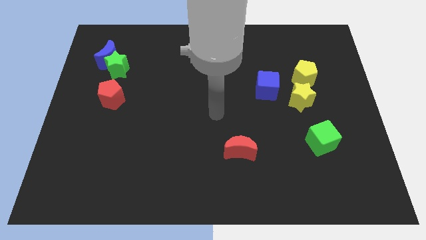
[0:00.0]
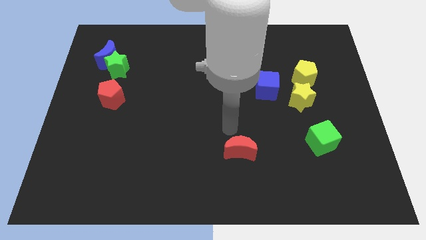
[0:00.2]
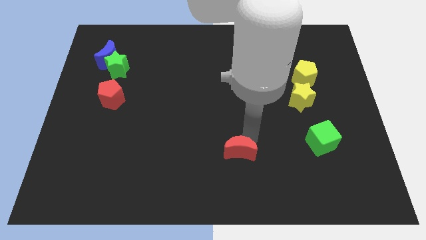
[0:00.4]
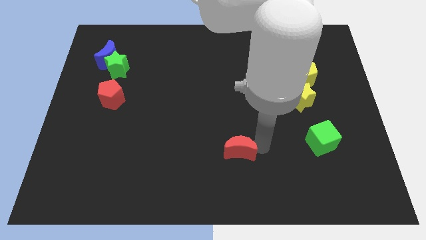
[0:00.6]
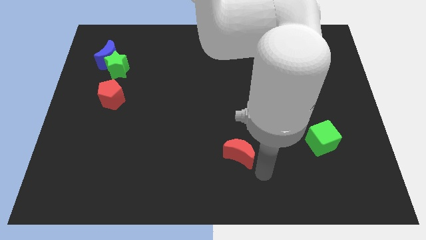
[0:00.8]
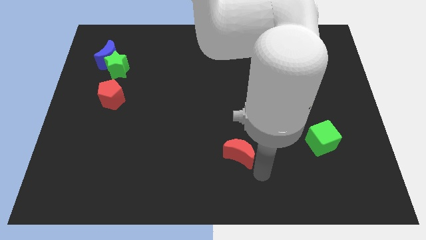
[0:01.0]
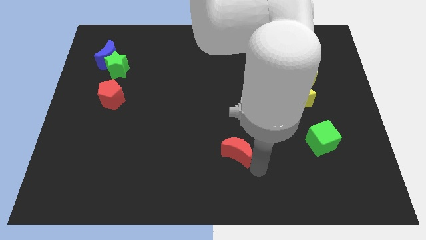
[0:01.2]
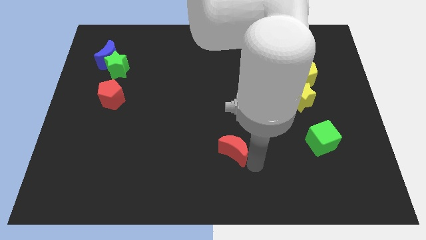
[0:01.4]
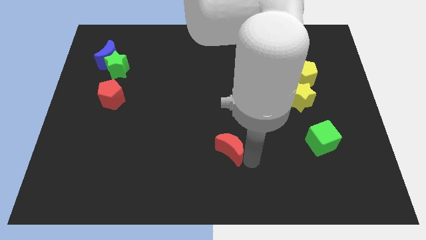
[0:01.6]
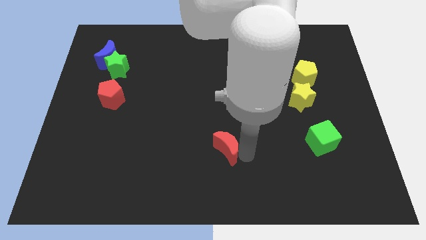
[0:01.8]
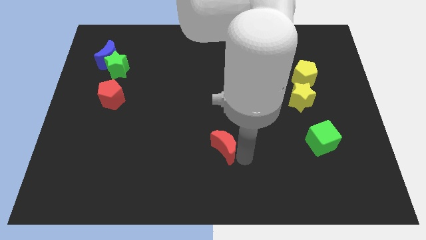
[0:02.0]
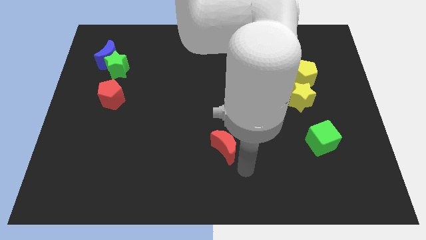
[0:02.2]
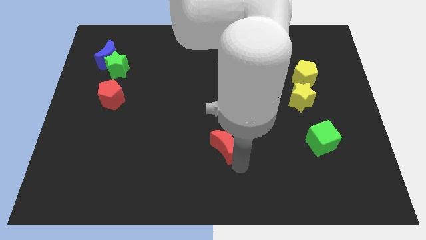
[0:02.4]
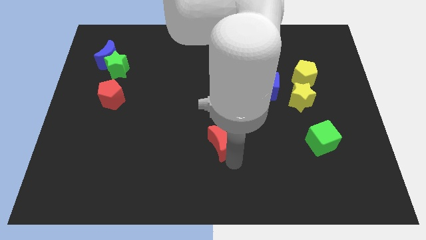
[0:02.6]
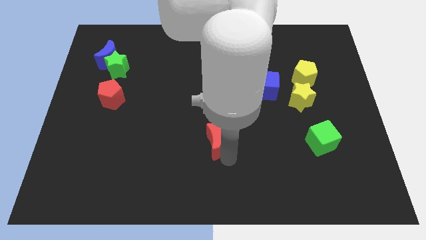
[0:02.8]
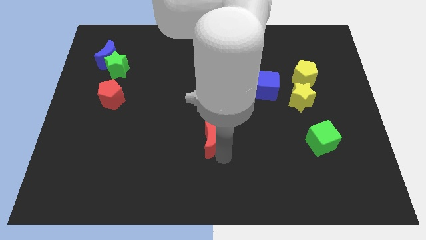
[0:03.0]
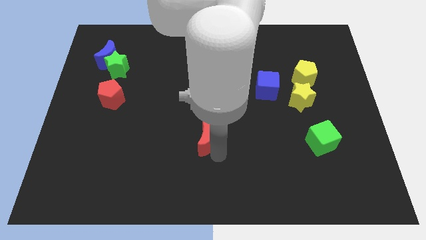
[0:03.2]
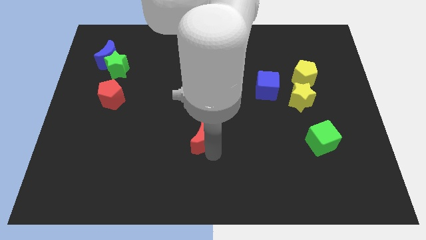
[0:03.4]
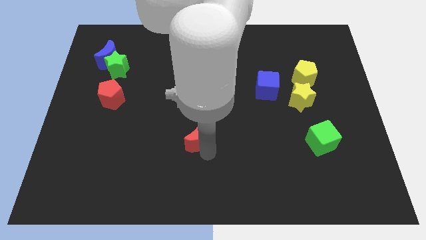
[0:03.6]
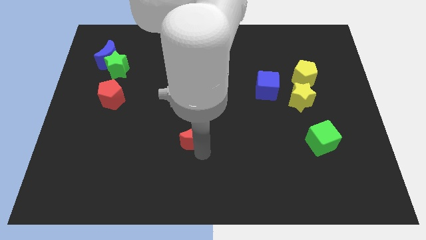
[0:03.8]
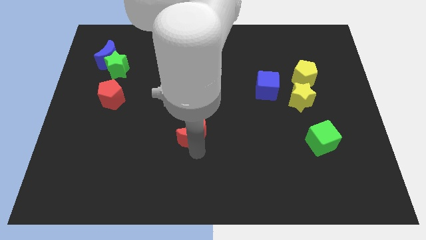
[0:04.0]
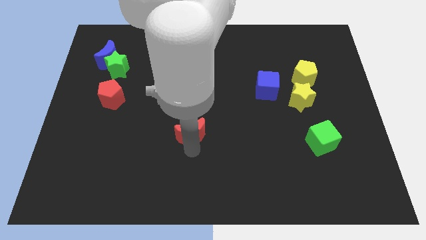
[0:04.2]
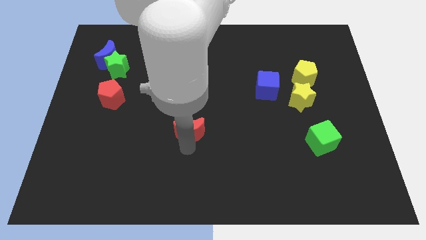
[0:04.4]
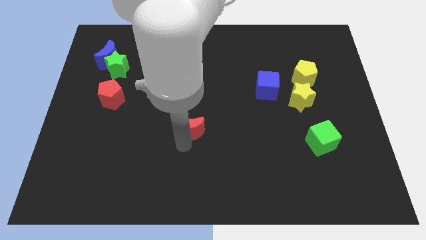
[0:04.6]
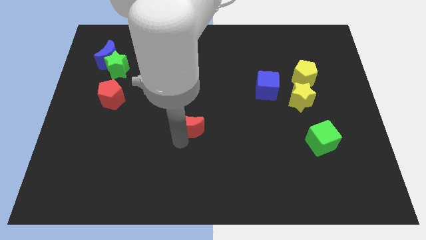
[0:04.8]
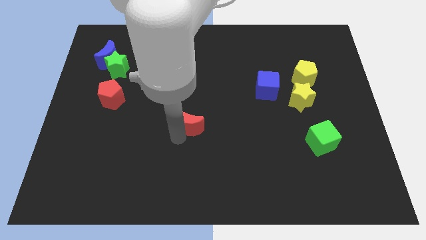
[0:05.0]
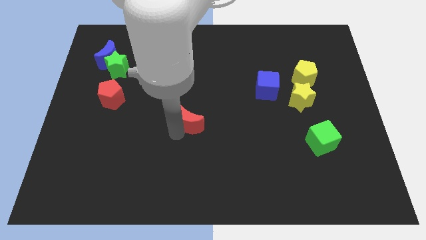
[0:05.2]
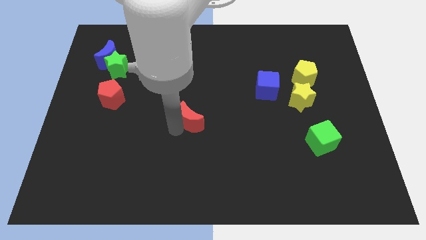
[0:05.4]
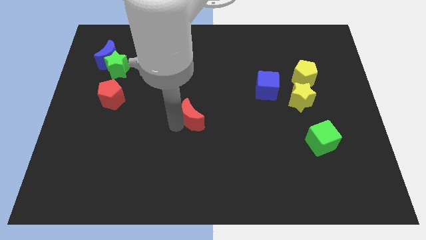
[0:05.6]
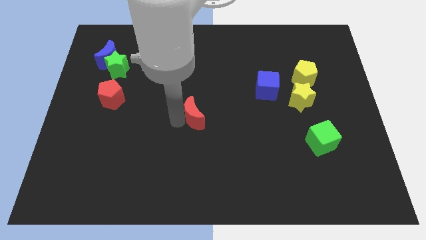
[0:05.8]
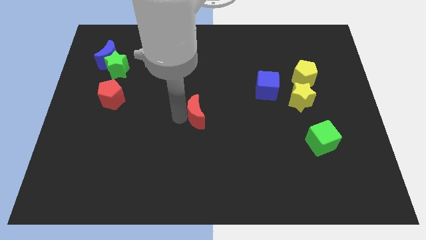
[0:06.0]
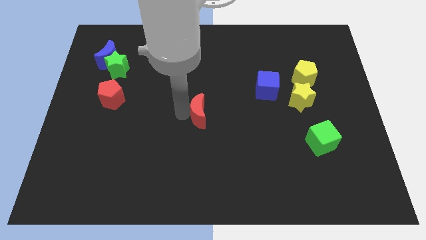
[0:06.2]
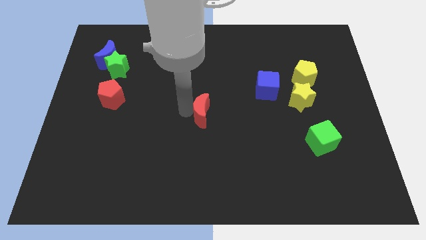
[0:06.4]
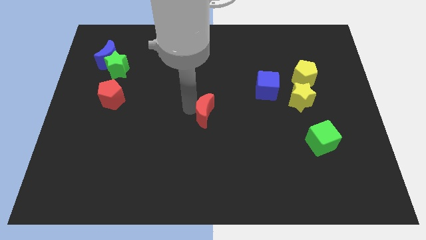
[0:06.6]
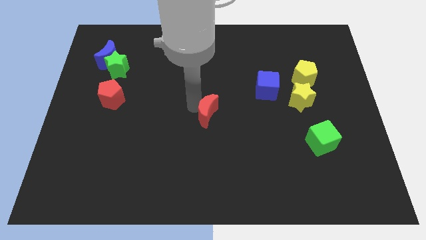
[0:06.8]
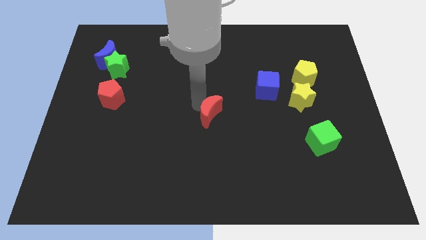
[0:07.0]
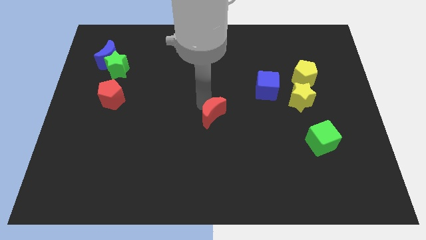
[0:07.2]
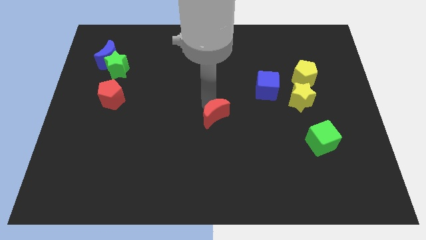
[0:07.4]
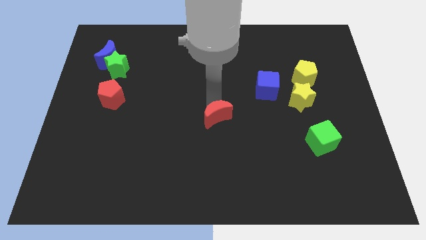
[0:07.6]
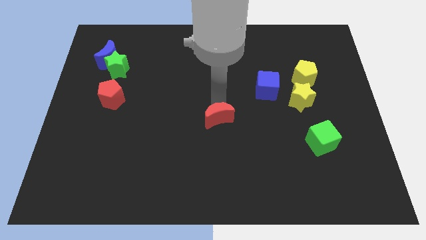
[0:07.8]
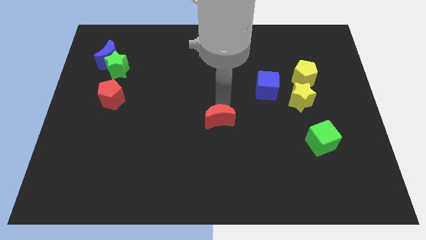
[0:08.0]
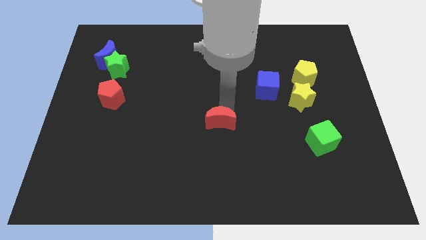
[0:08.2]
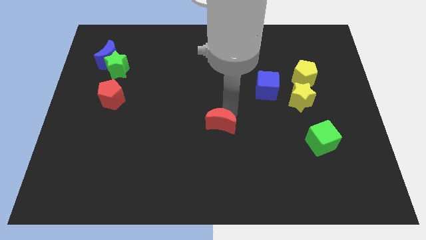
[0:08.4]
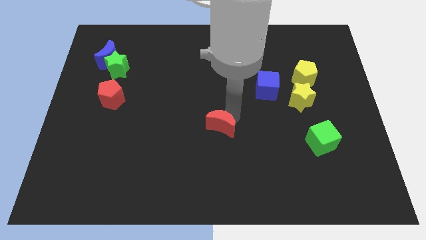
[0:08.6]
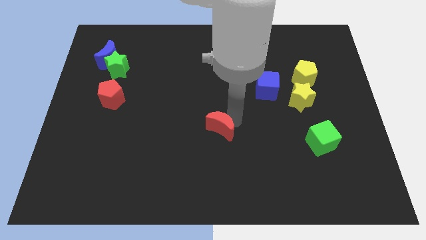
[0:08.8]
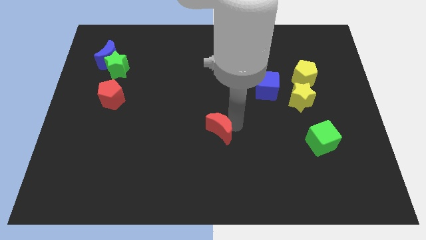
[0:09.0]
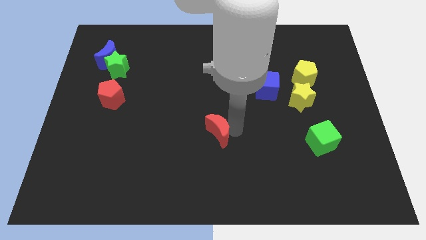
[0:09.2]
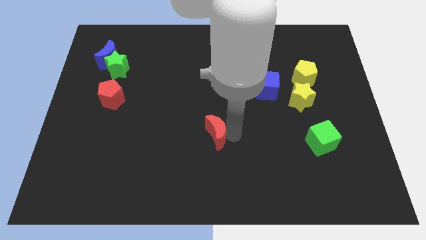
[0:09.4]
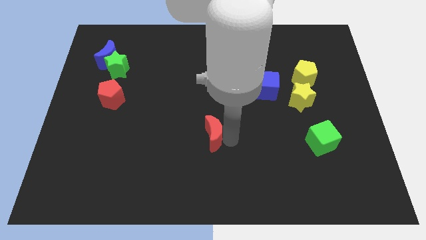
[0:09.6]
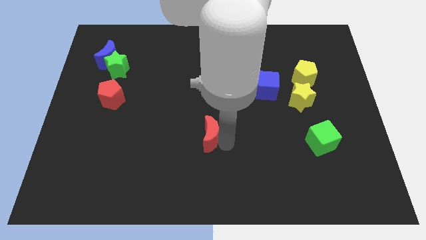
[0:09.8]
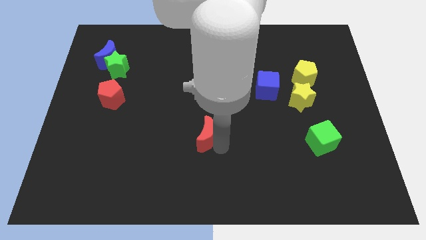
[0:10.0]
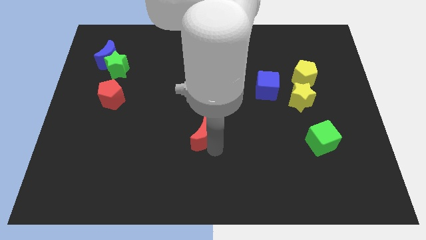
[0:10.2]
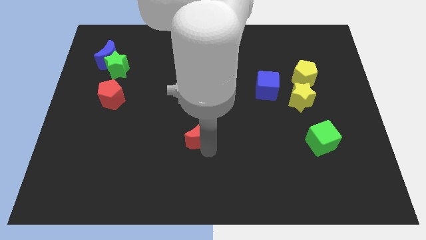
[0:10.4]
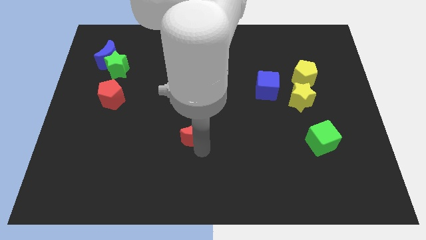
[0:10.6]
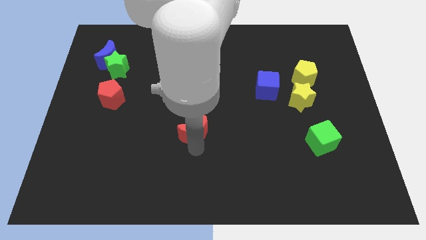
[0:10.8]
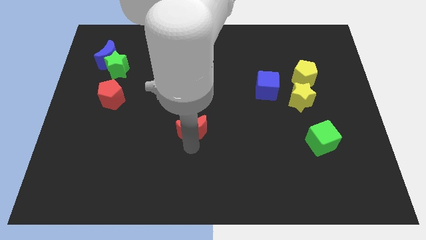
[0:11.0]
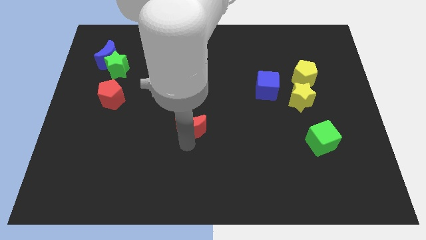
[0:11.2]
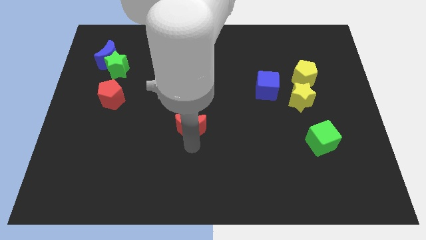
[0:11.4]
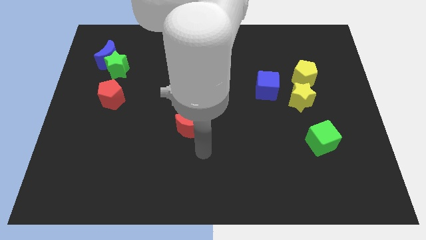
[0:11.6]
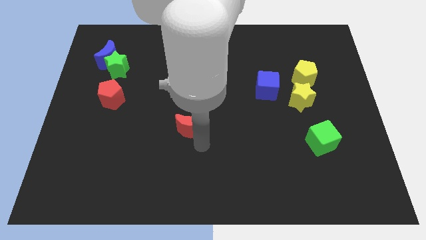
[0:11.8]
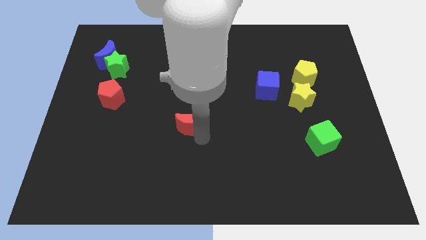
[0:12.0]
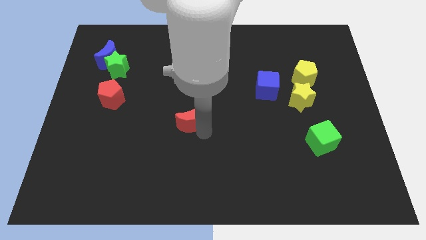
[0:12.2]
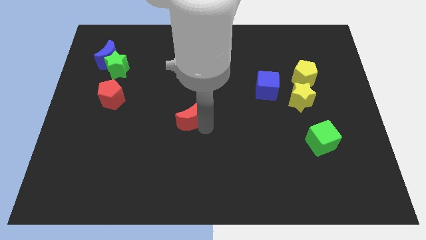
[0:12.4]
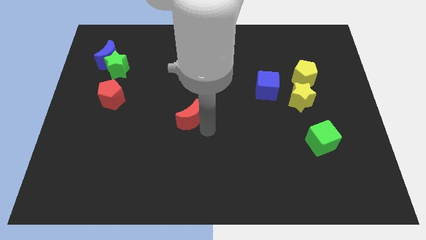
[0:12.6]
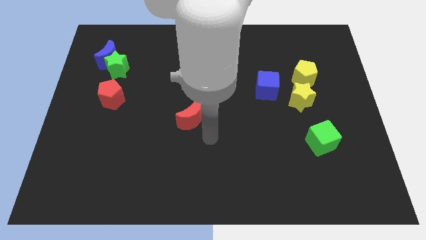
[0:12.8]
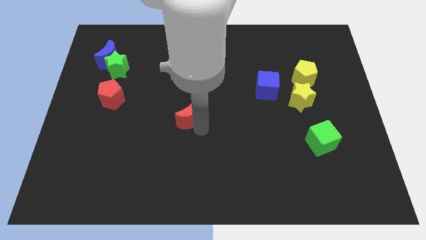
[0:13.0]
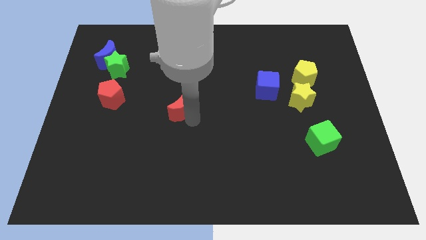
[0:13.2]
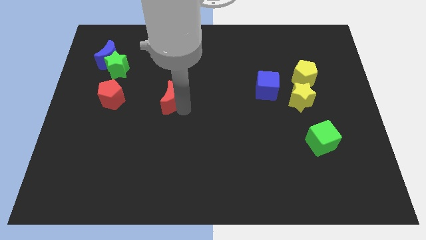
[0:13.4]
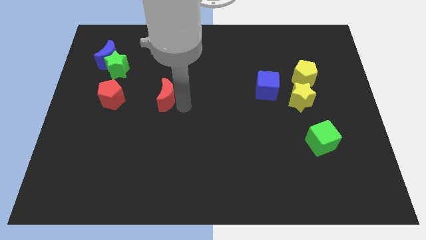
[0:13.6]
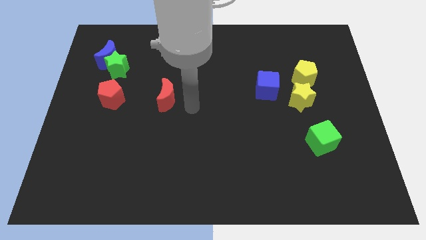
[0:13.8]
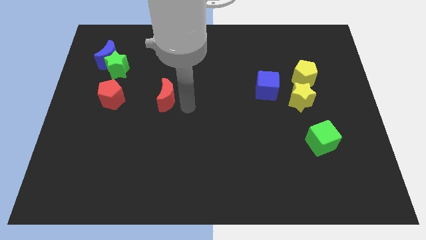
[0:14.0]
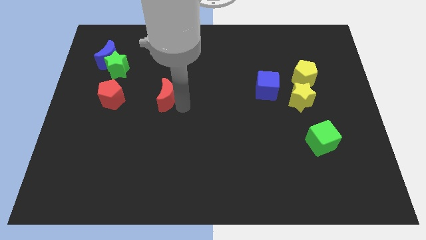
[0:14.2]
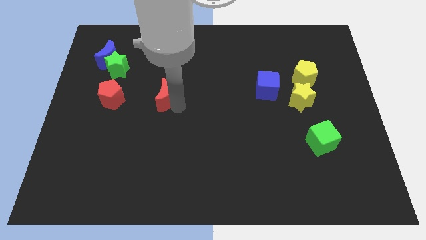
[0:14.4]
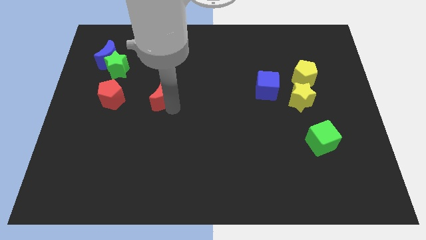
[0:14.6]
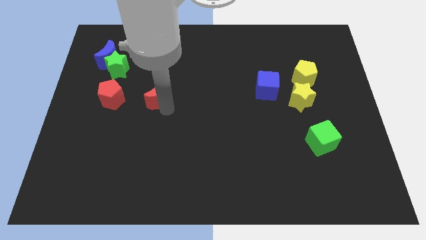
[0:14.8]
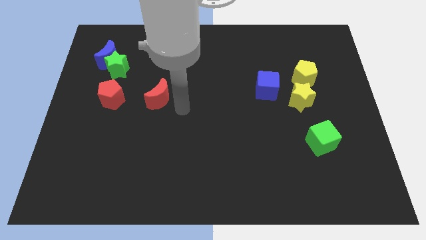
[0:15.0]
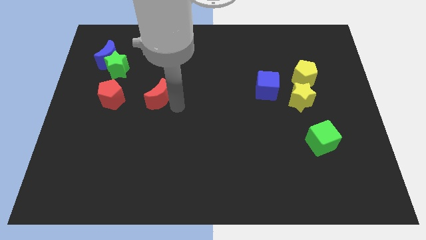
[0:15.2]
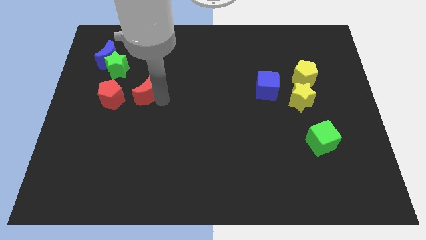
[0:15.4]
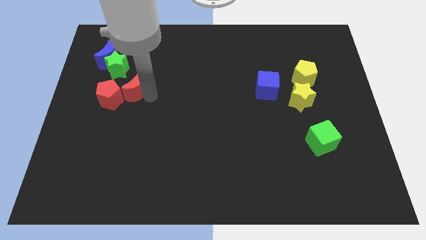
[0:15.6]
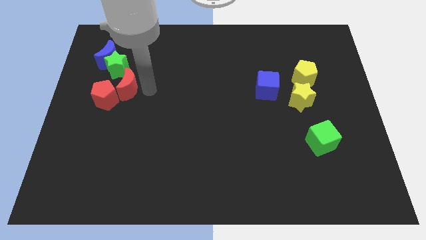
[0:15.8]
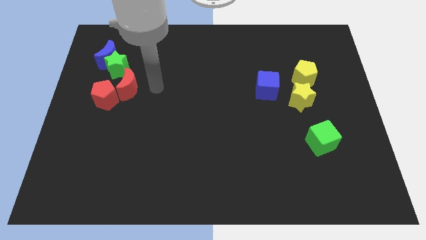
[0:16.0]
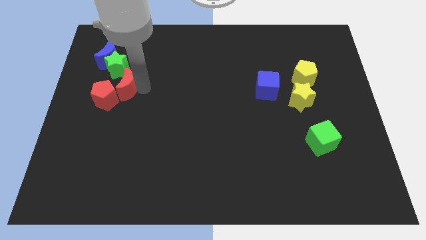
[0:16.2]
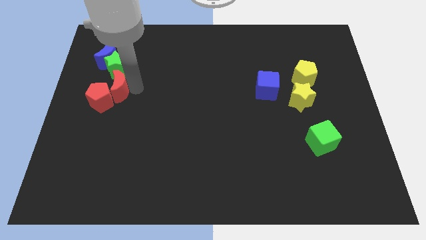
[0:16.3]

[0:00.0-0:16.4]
slide the red moon to the bottom side of the blue moon
